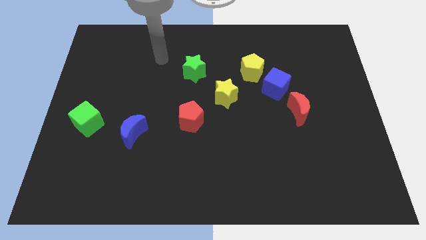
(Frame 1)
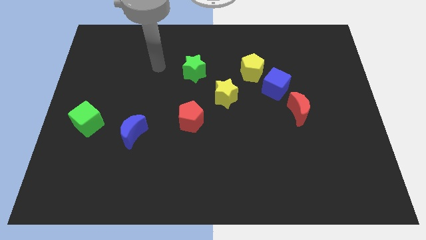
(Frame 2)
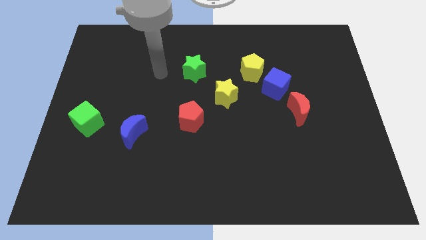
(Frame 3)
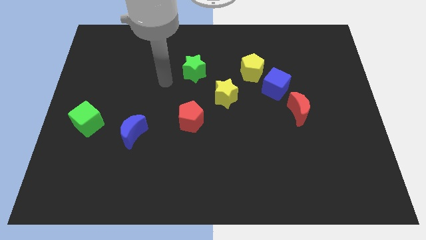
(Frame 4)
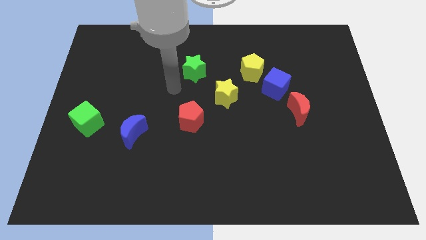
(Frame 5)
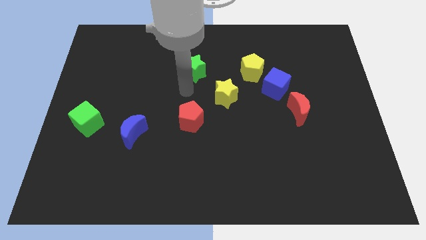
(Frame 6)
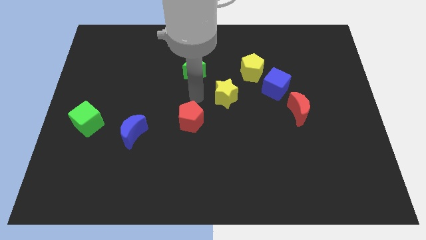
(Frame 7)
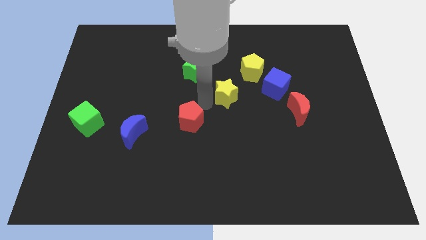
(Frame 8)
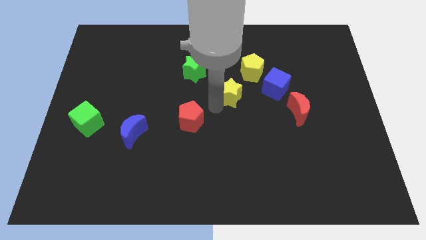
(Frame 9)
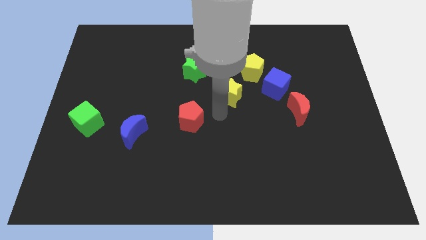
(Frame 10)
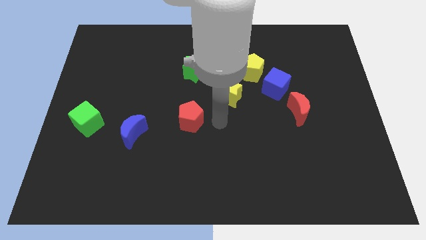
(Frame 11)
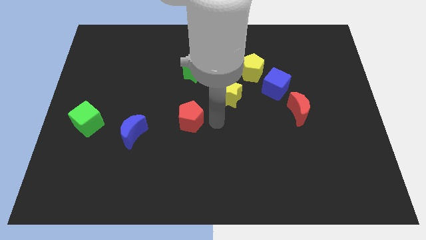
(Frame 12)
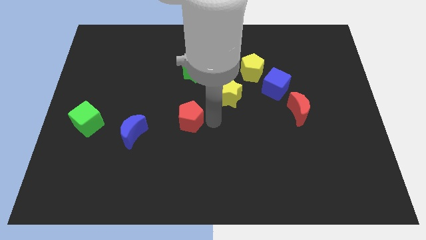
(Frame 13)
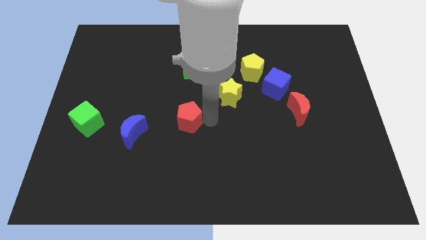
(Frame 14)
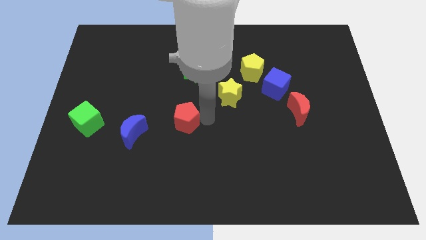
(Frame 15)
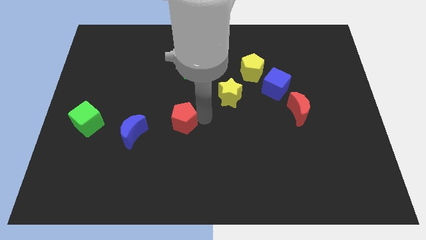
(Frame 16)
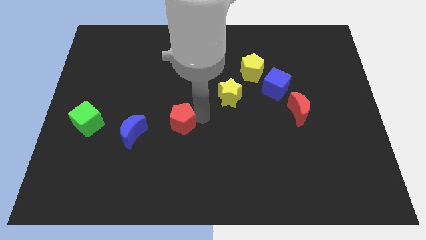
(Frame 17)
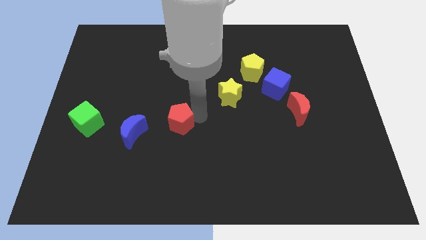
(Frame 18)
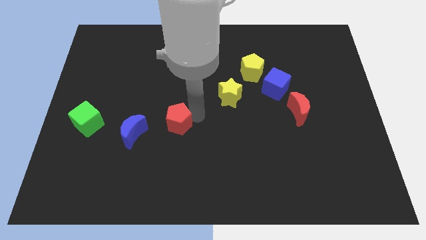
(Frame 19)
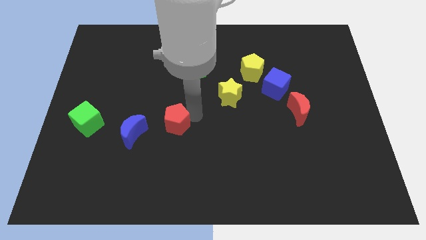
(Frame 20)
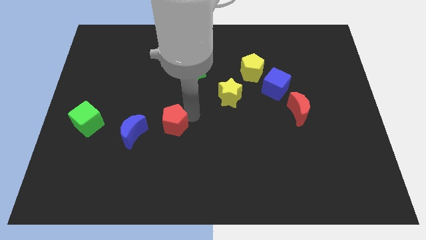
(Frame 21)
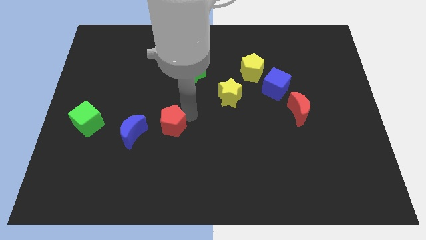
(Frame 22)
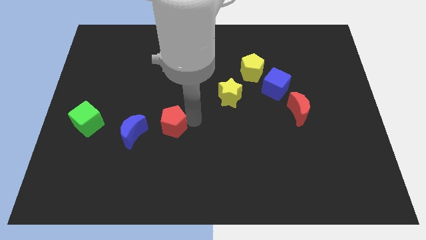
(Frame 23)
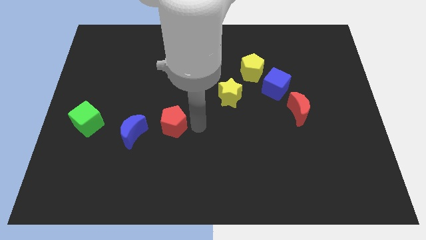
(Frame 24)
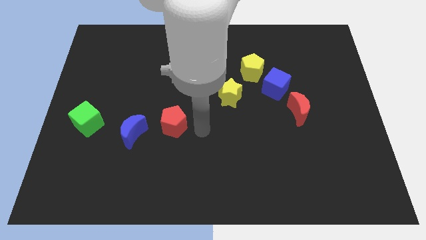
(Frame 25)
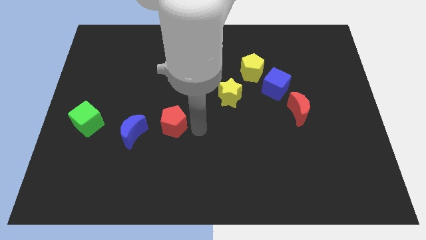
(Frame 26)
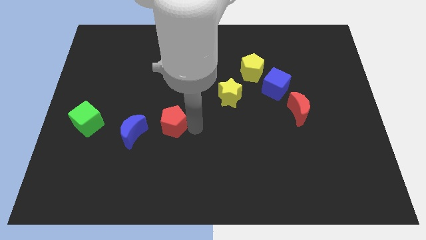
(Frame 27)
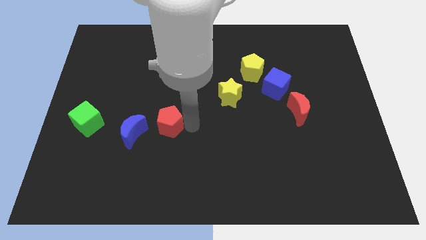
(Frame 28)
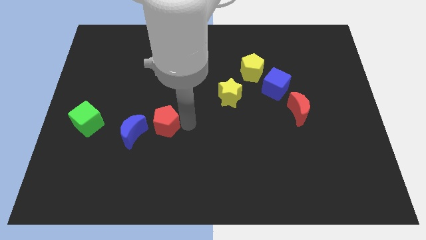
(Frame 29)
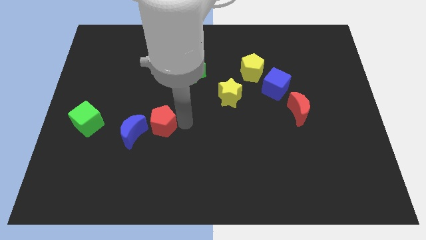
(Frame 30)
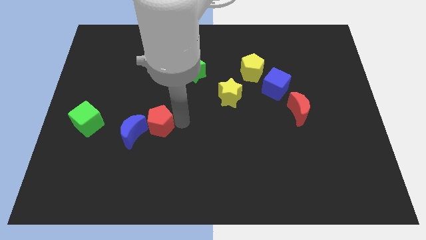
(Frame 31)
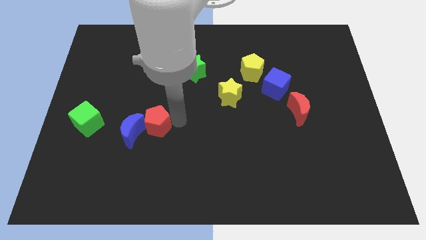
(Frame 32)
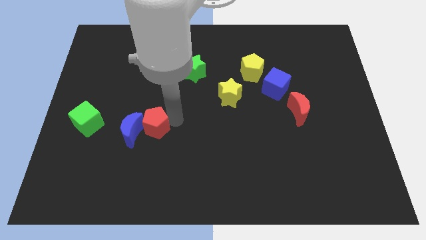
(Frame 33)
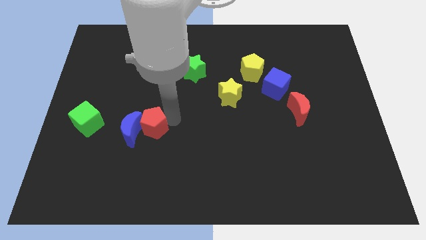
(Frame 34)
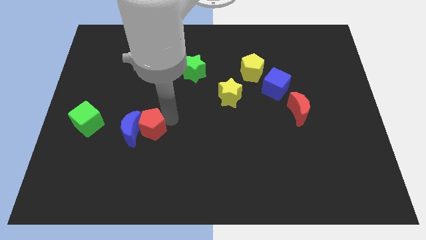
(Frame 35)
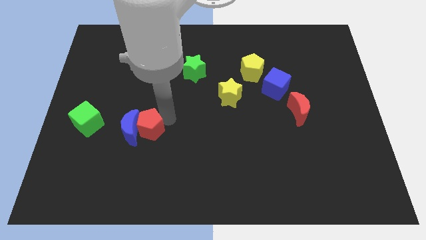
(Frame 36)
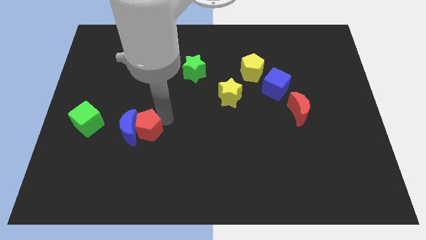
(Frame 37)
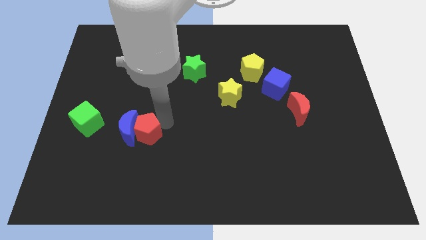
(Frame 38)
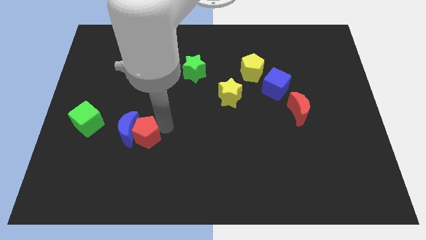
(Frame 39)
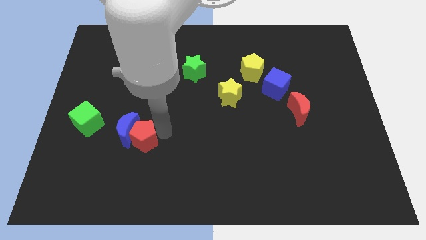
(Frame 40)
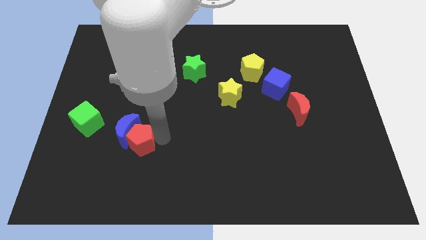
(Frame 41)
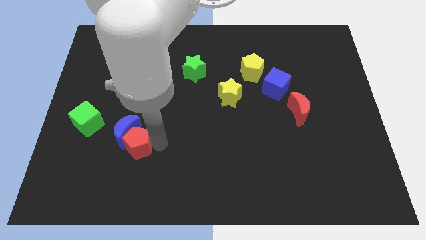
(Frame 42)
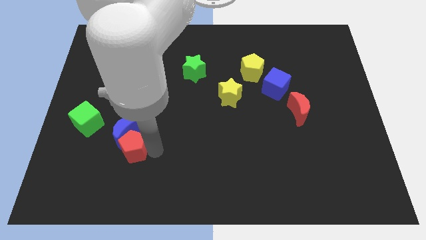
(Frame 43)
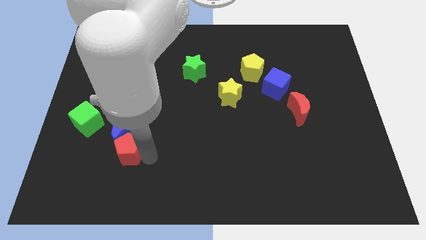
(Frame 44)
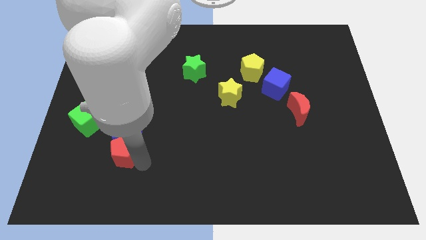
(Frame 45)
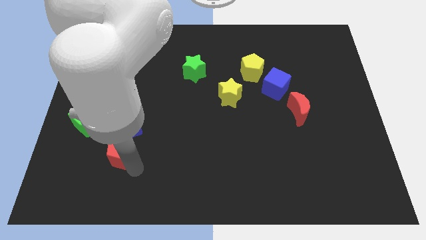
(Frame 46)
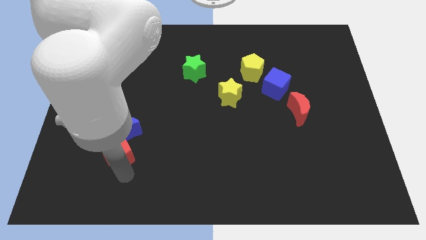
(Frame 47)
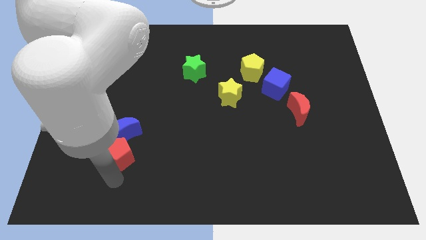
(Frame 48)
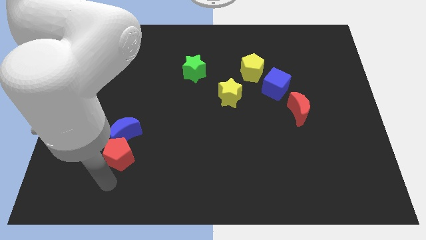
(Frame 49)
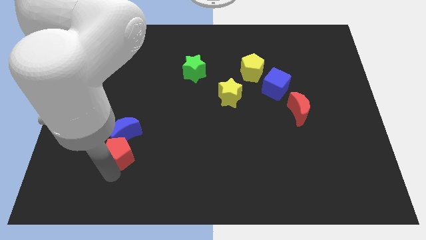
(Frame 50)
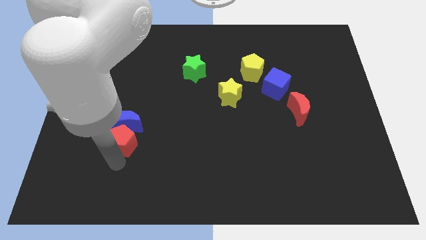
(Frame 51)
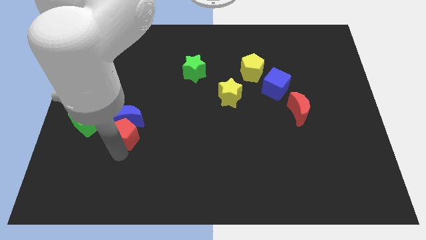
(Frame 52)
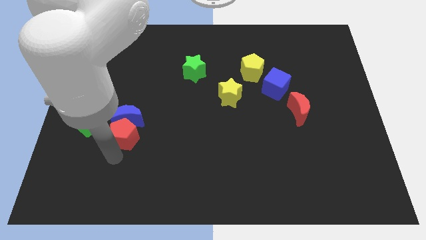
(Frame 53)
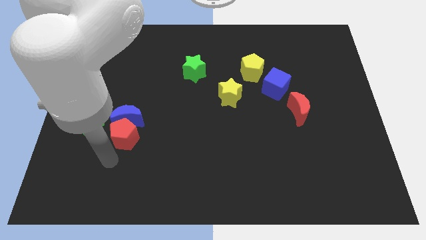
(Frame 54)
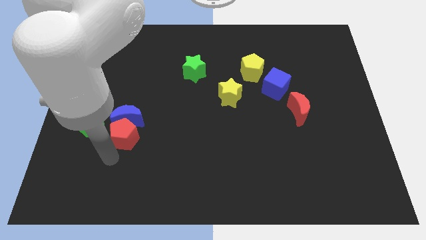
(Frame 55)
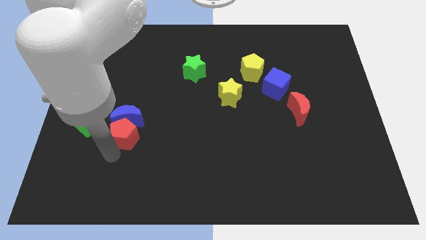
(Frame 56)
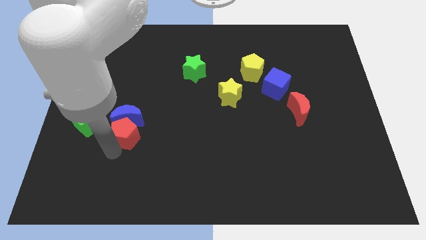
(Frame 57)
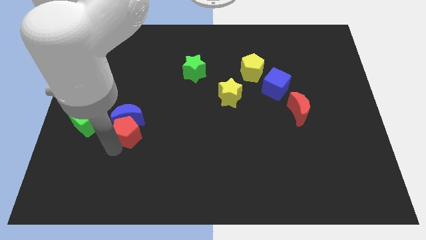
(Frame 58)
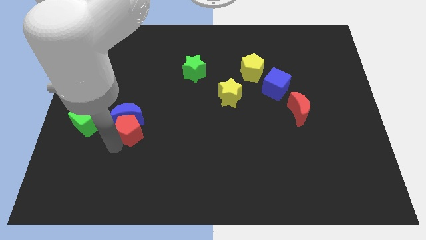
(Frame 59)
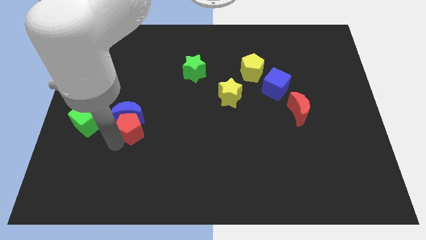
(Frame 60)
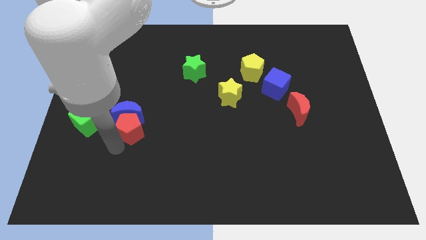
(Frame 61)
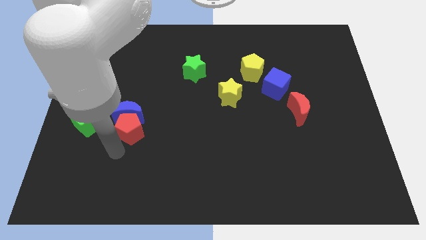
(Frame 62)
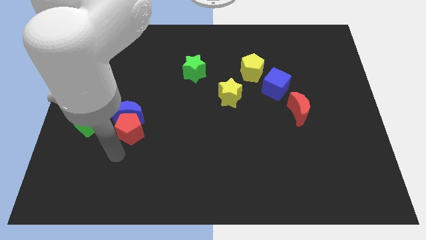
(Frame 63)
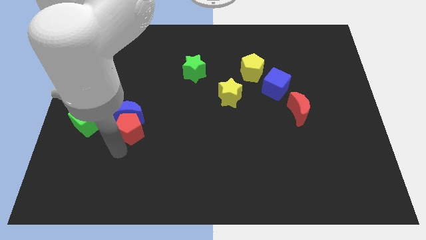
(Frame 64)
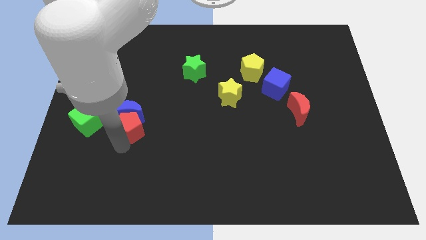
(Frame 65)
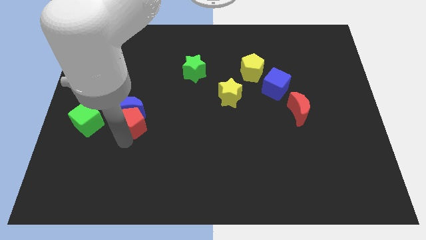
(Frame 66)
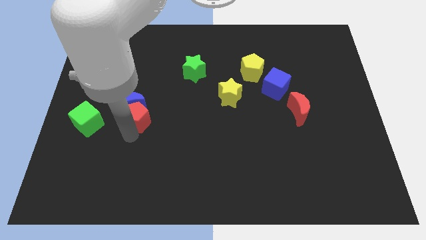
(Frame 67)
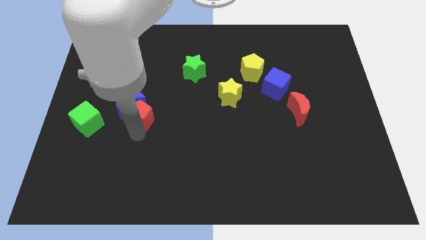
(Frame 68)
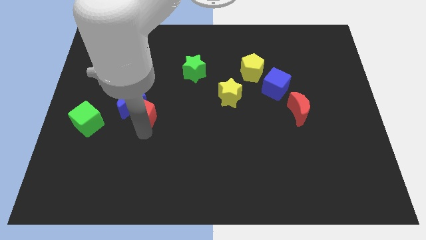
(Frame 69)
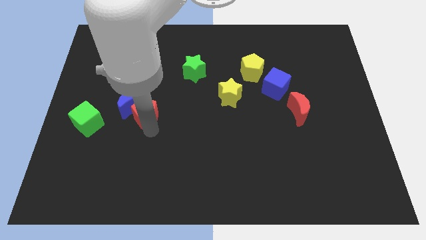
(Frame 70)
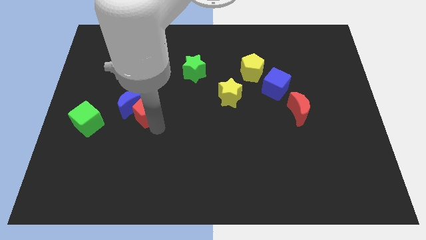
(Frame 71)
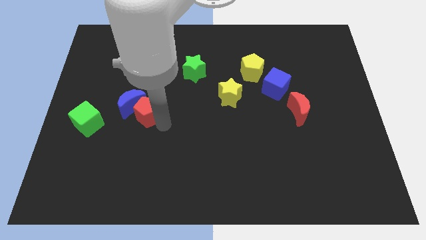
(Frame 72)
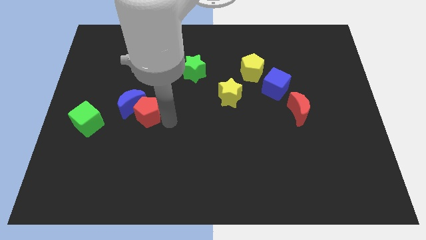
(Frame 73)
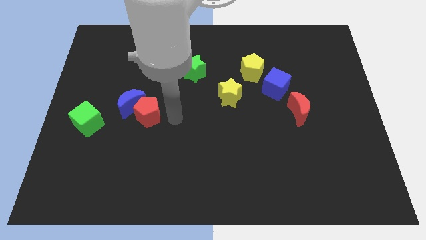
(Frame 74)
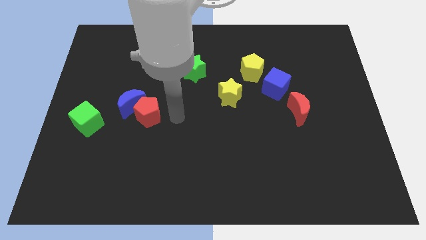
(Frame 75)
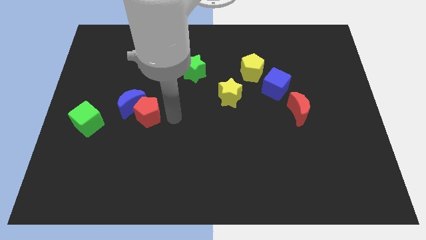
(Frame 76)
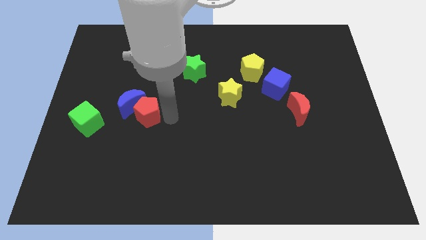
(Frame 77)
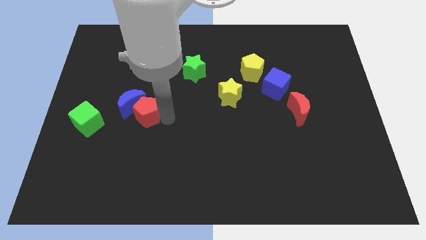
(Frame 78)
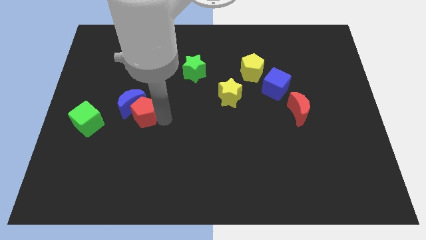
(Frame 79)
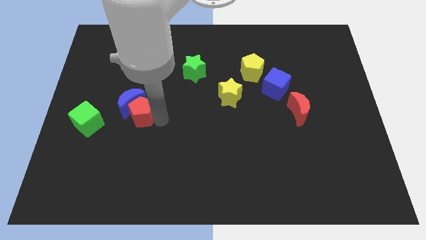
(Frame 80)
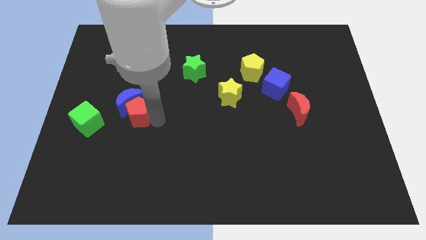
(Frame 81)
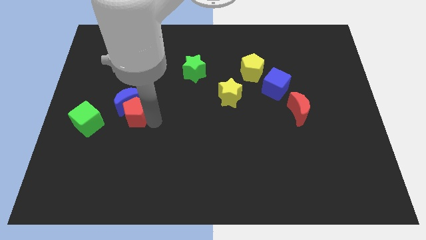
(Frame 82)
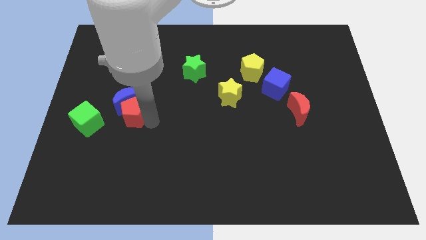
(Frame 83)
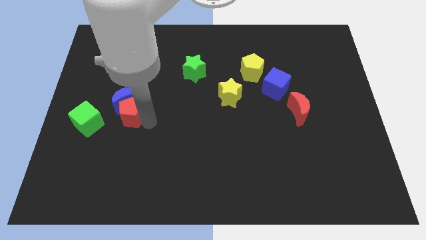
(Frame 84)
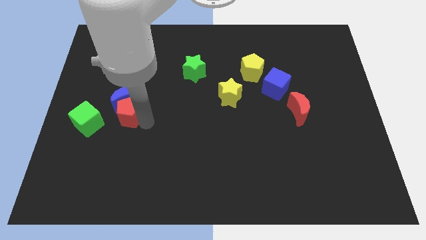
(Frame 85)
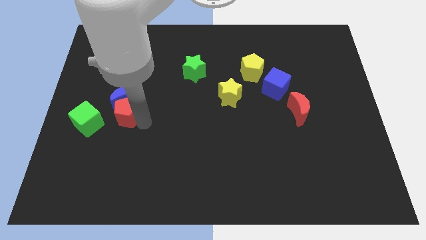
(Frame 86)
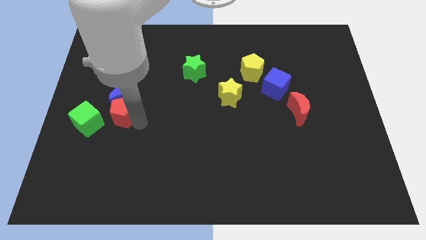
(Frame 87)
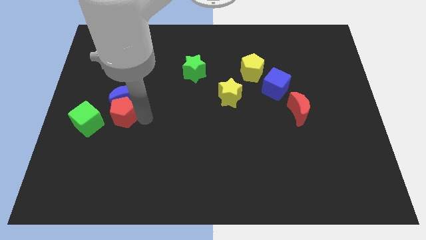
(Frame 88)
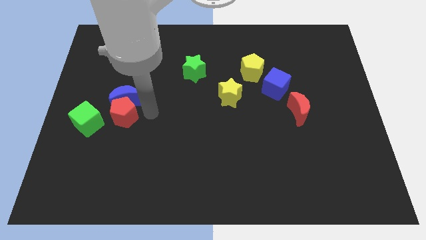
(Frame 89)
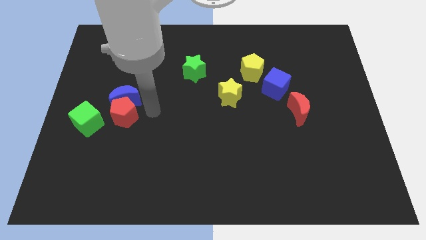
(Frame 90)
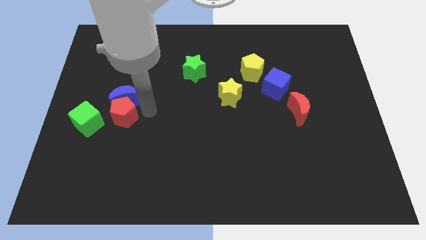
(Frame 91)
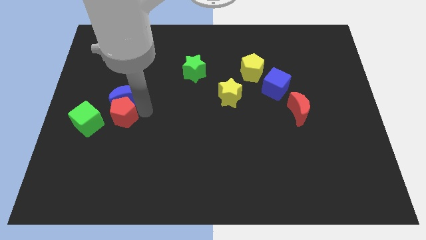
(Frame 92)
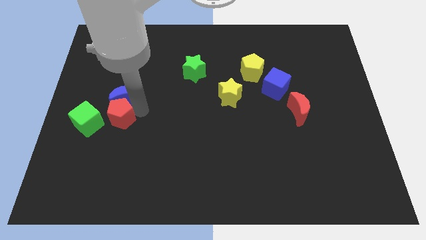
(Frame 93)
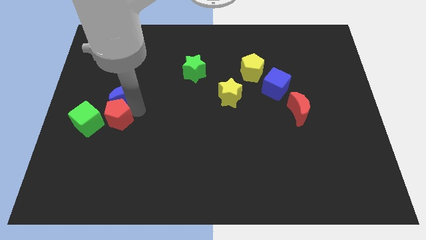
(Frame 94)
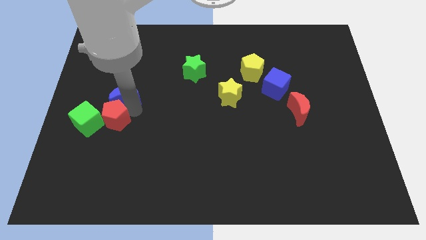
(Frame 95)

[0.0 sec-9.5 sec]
move the red pentagon close to the green cube
